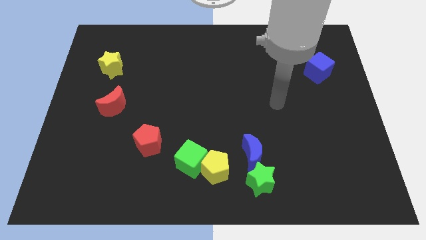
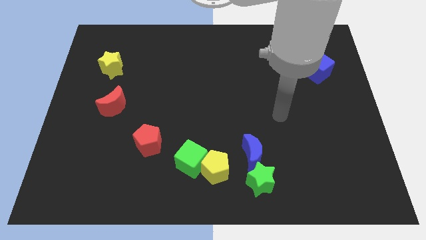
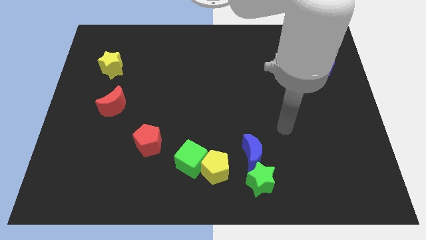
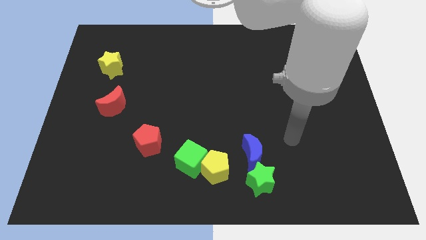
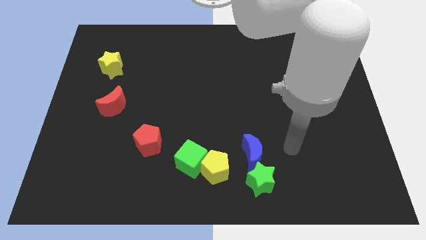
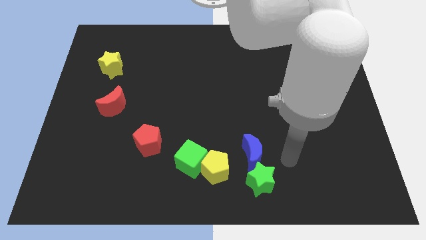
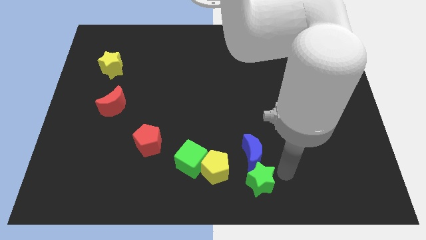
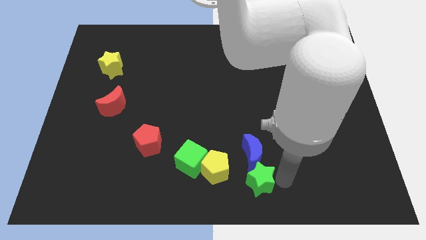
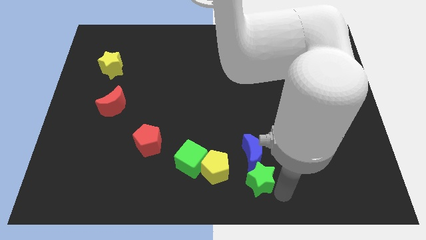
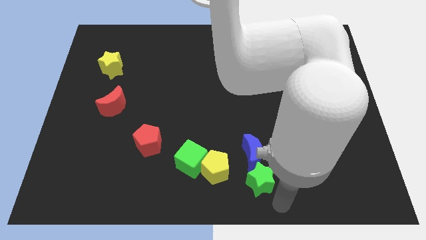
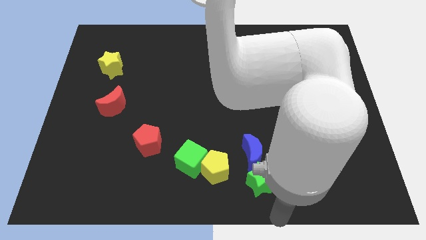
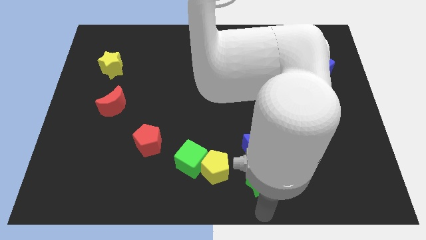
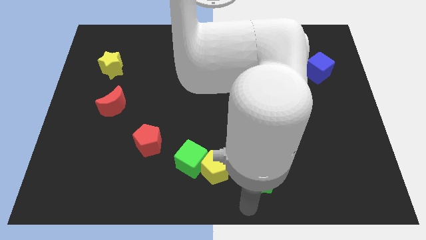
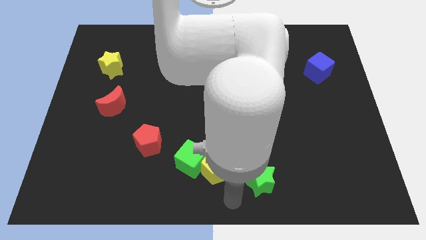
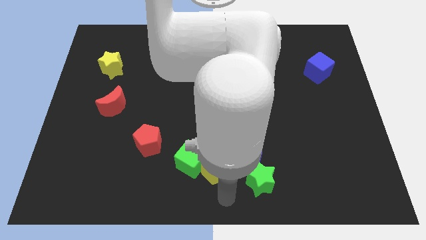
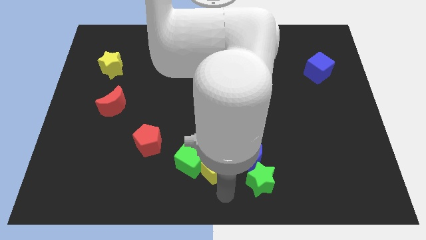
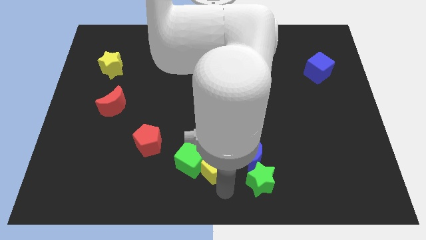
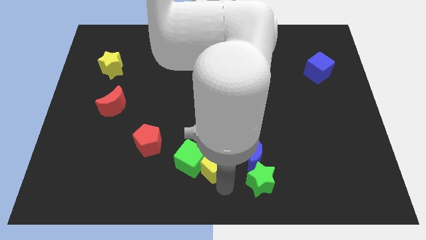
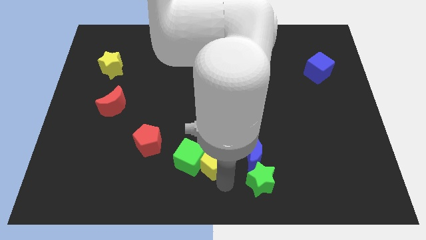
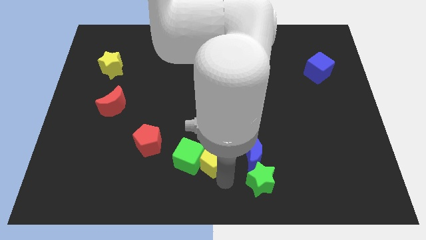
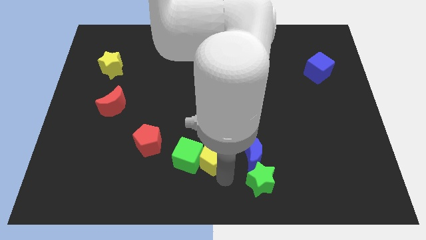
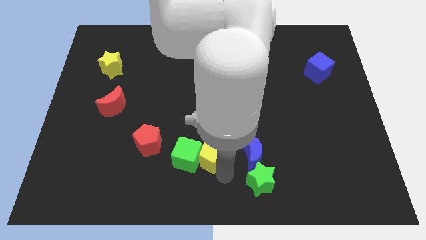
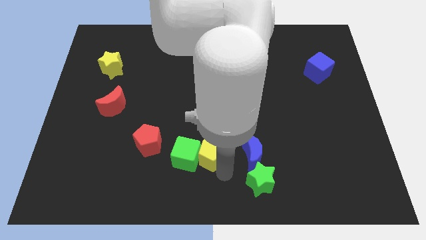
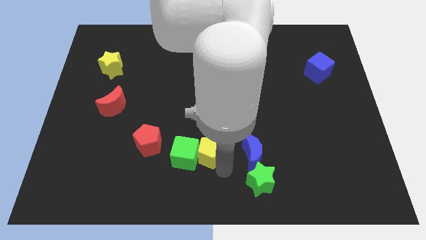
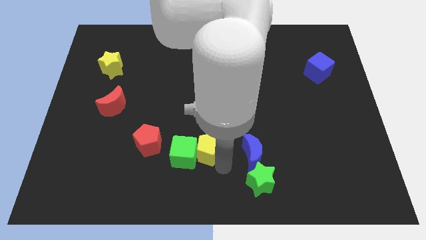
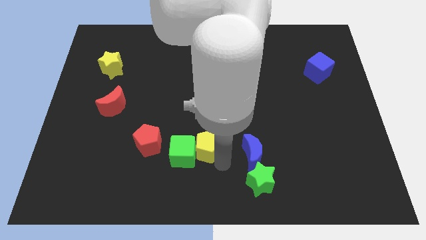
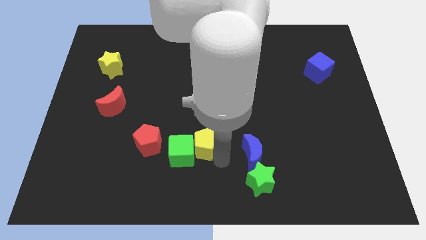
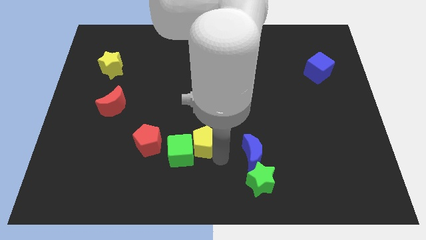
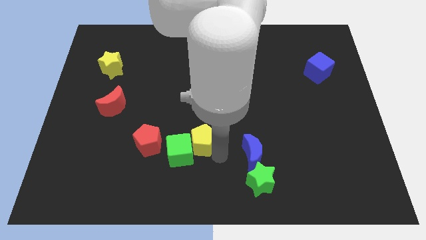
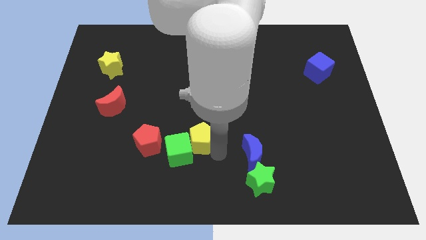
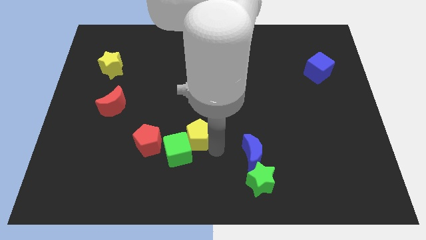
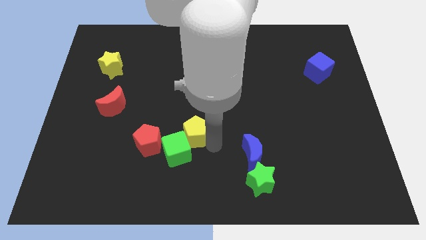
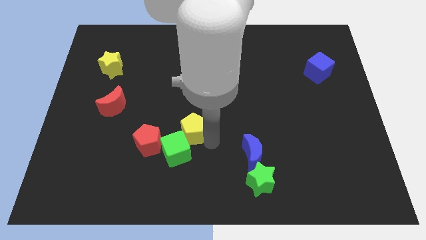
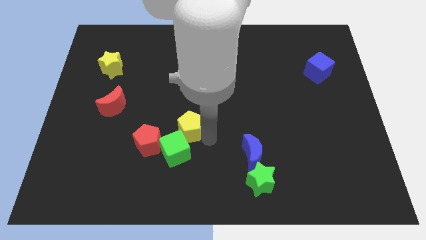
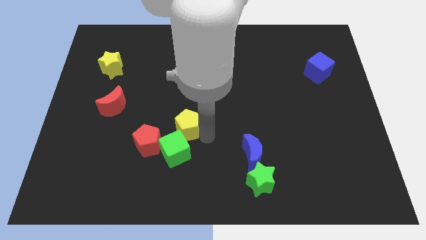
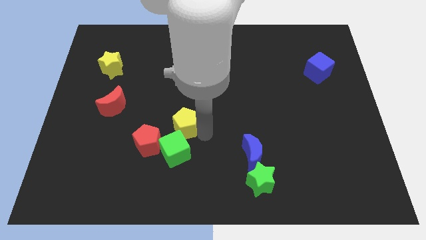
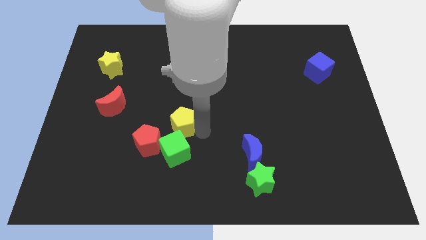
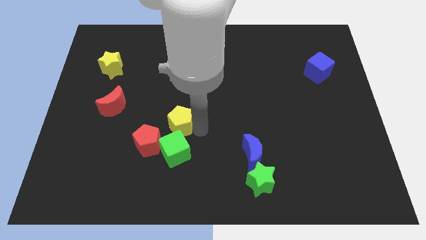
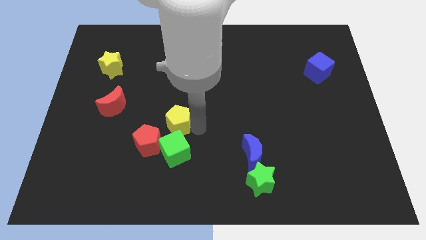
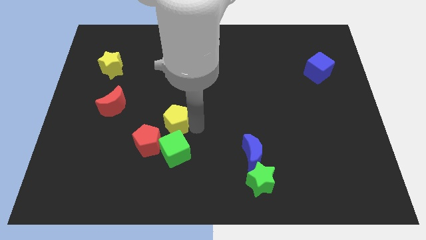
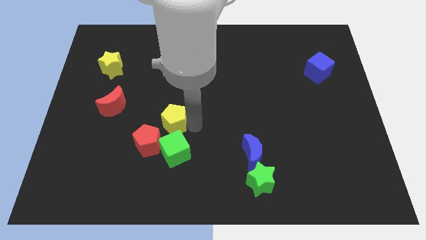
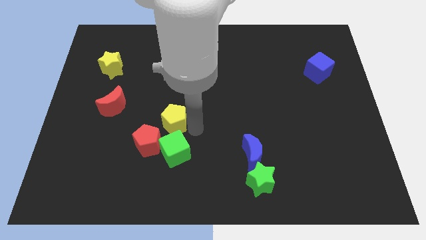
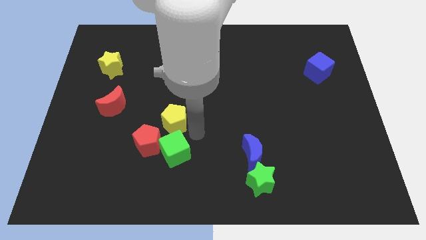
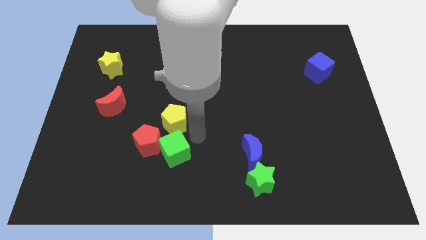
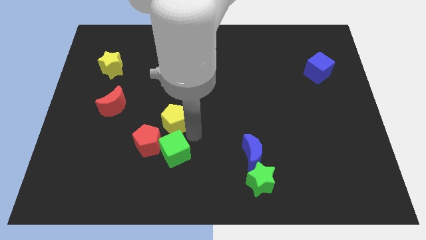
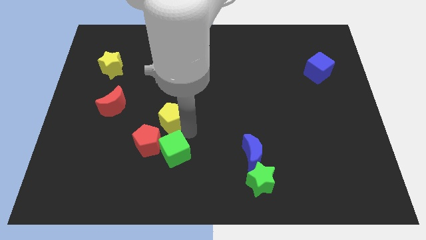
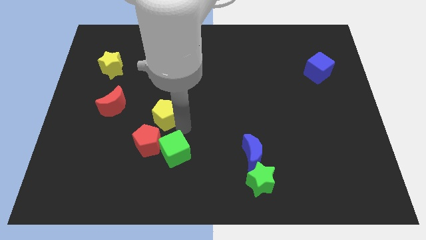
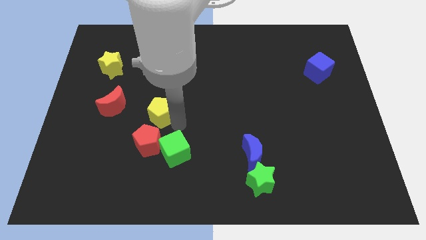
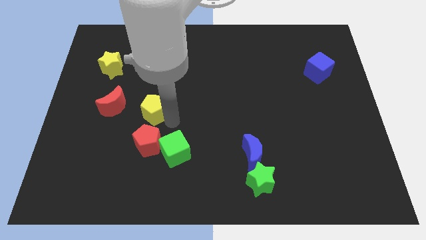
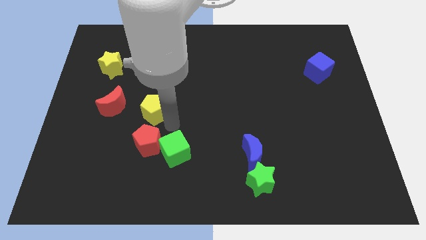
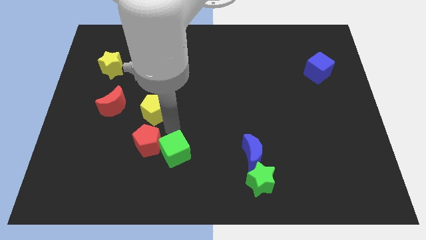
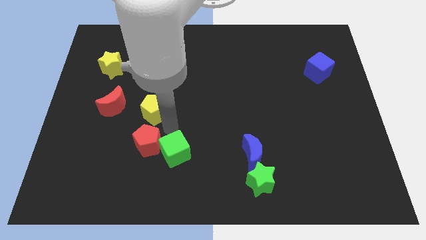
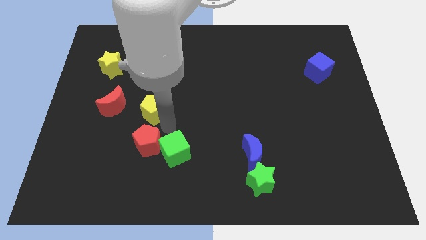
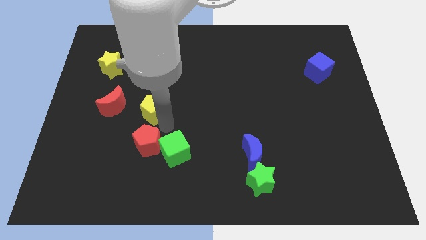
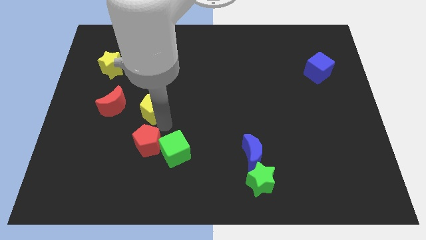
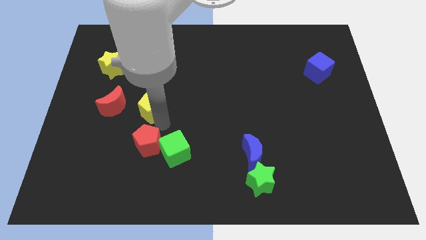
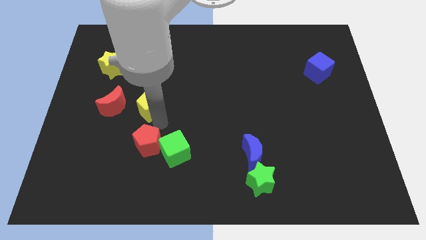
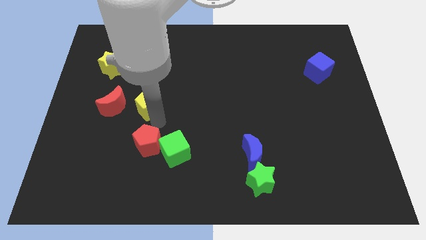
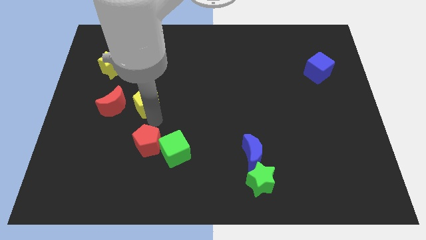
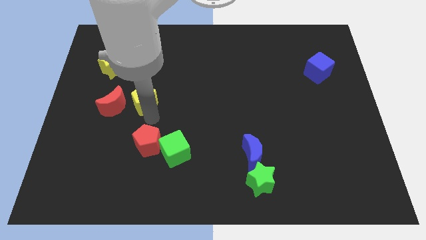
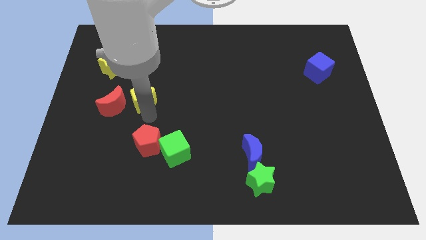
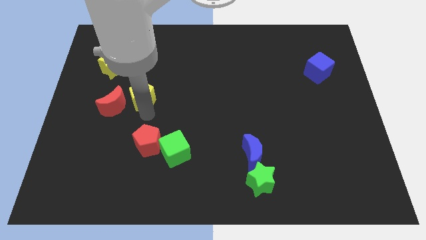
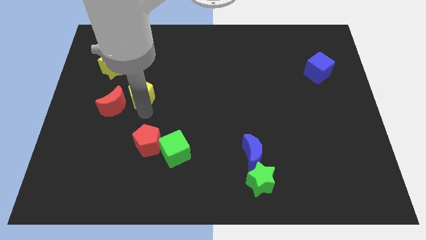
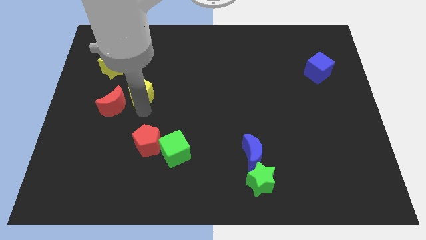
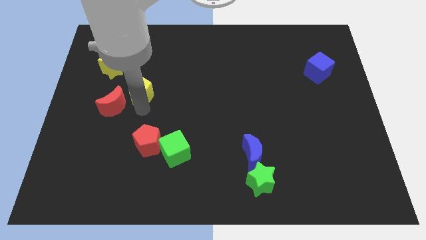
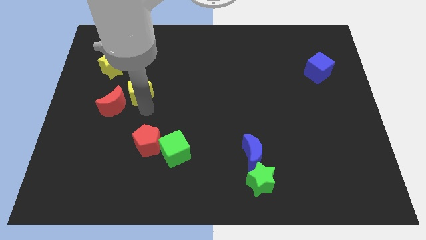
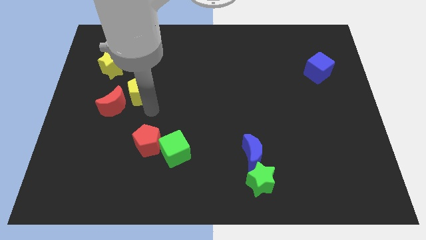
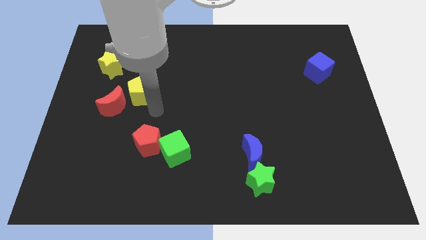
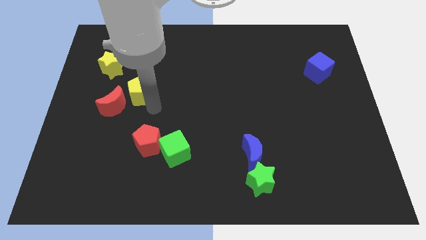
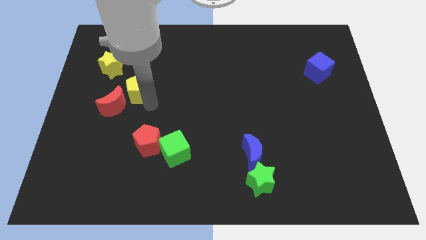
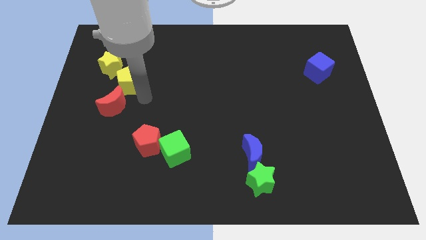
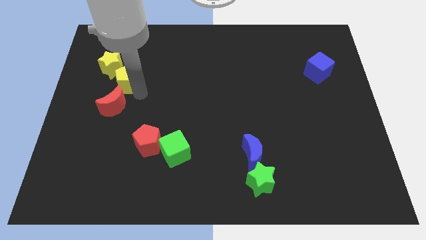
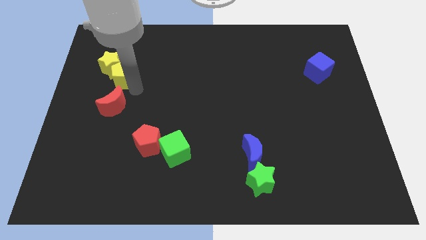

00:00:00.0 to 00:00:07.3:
put the yellow pentagon to the yellow star
